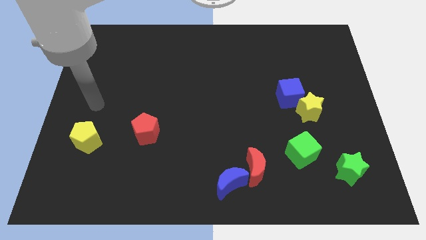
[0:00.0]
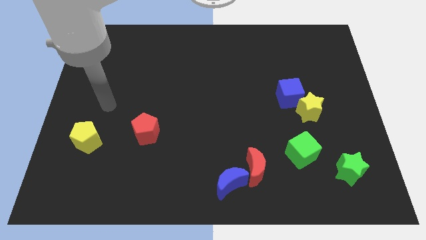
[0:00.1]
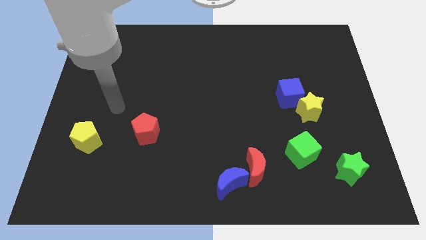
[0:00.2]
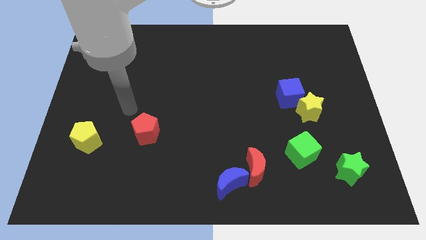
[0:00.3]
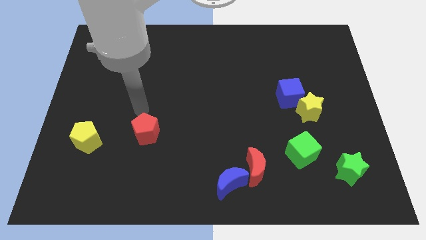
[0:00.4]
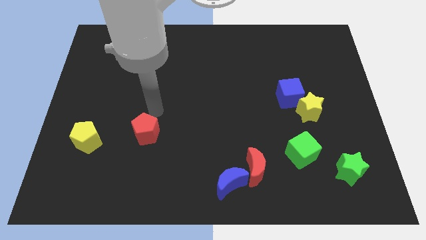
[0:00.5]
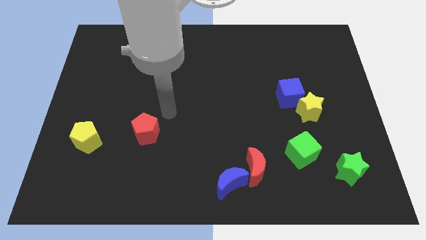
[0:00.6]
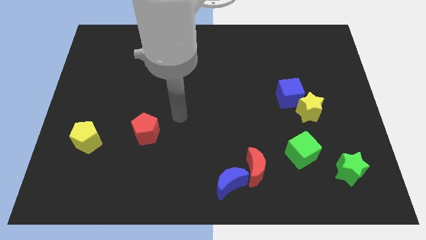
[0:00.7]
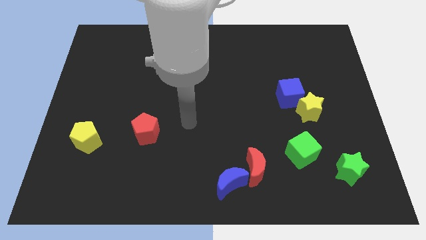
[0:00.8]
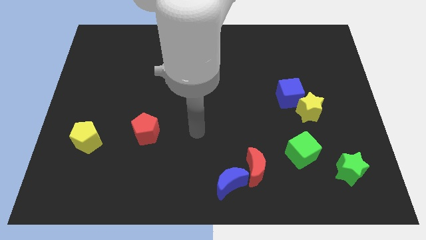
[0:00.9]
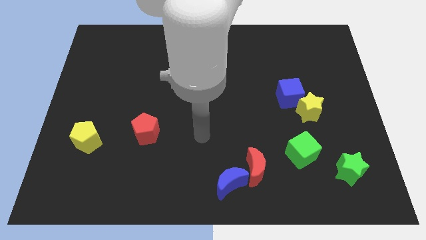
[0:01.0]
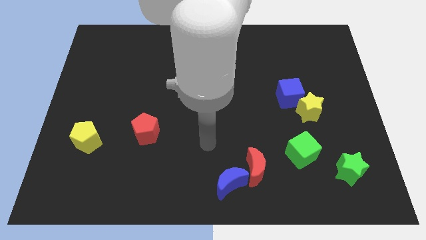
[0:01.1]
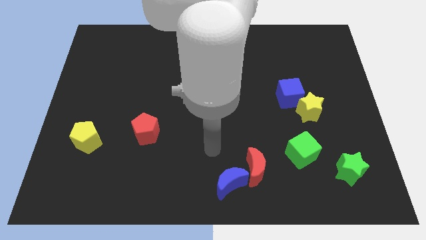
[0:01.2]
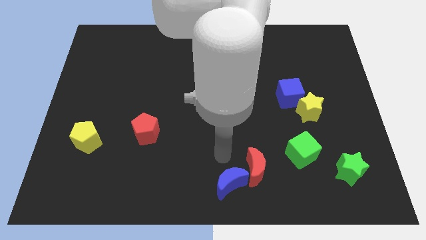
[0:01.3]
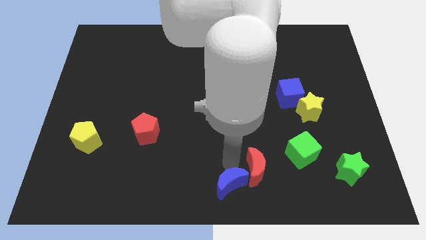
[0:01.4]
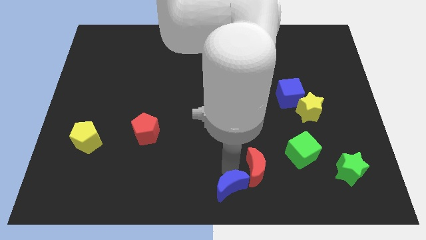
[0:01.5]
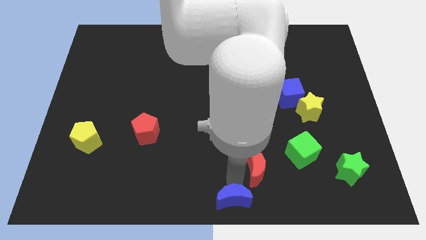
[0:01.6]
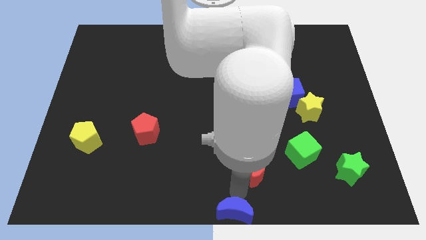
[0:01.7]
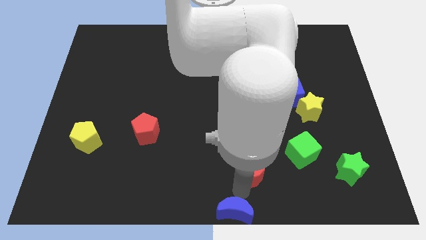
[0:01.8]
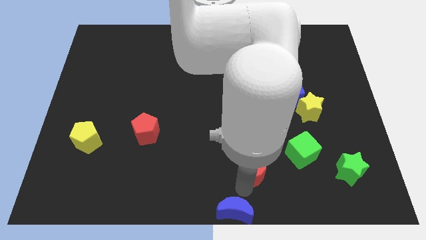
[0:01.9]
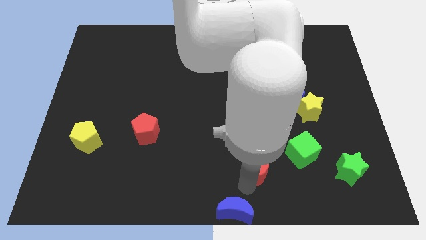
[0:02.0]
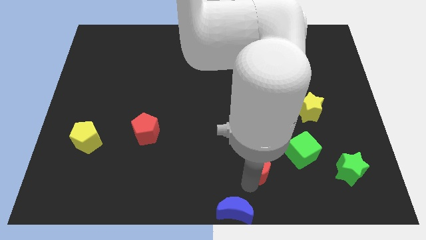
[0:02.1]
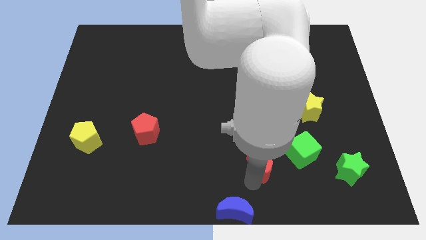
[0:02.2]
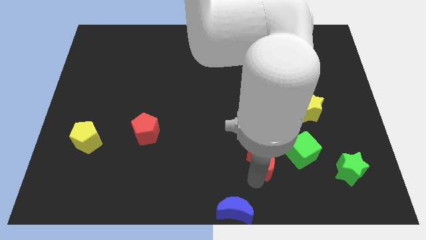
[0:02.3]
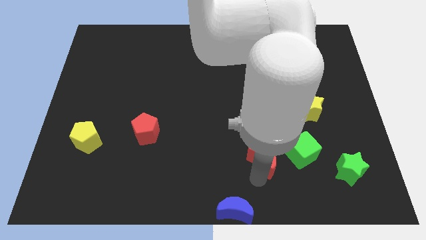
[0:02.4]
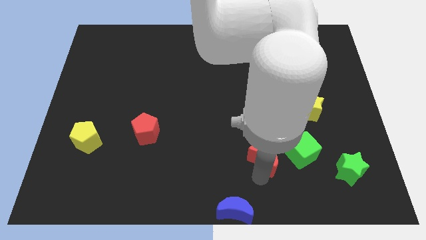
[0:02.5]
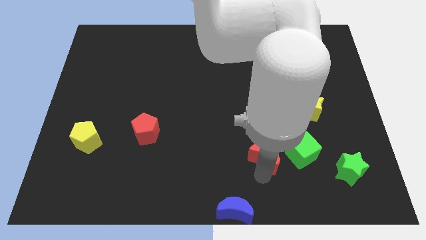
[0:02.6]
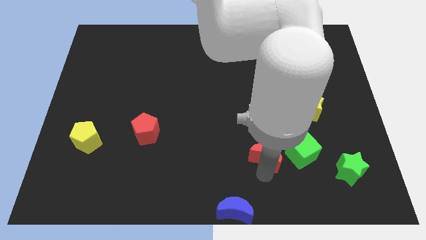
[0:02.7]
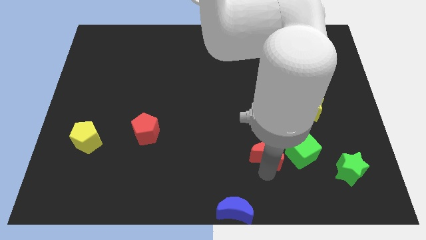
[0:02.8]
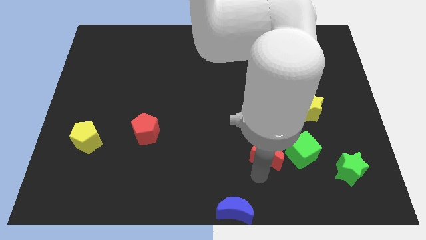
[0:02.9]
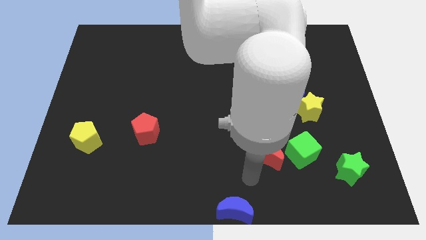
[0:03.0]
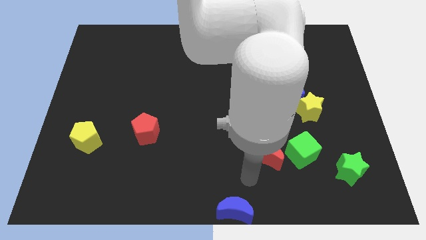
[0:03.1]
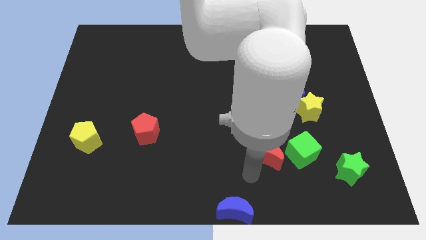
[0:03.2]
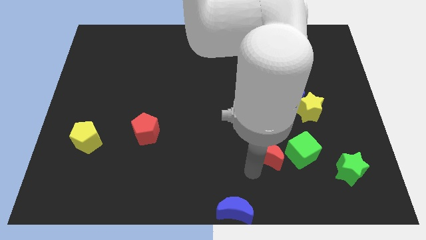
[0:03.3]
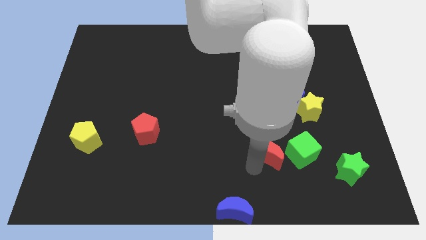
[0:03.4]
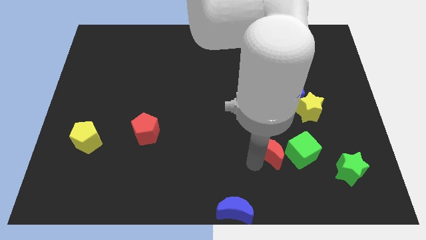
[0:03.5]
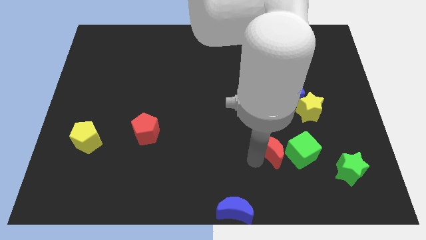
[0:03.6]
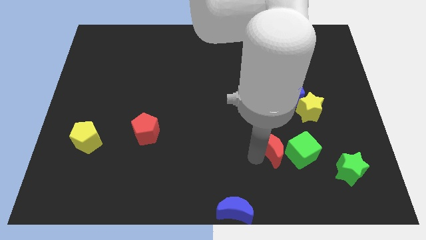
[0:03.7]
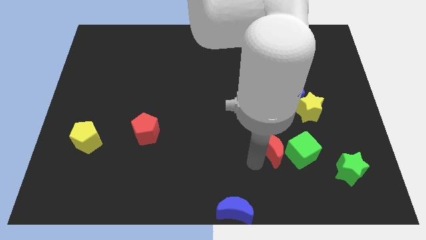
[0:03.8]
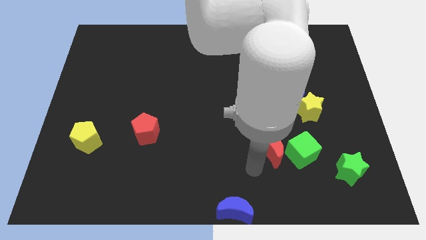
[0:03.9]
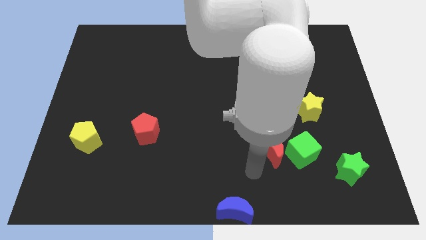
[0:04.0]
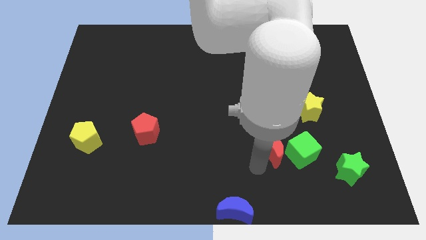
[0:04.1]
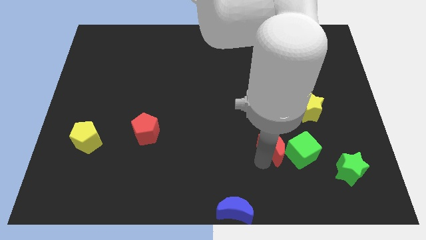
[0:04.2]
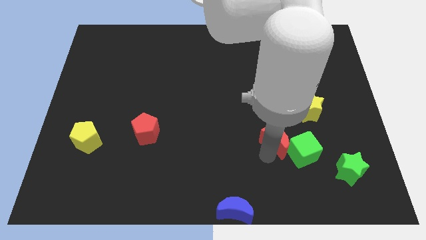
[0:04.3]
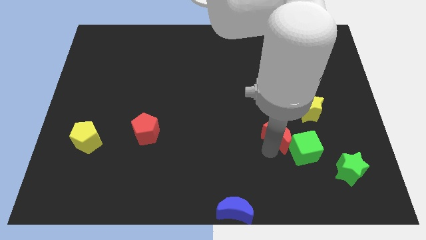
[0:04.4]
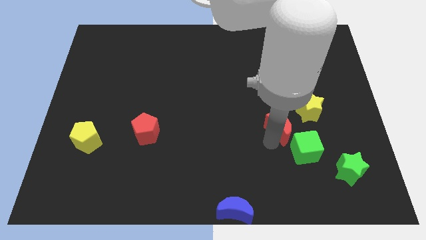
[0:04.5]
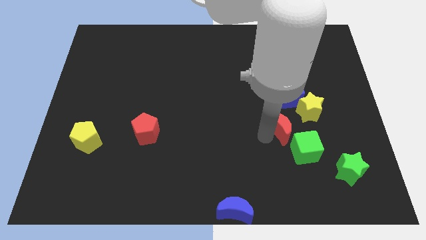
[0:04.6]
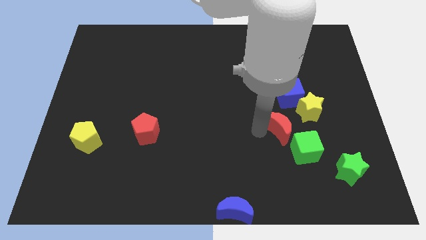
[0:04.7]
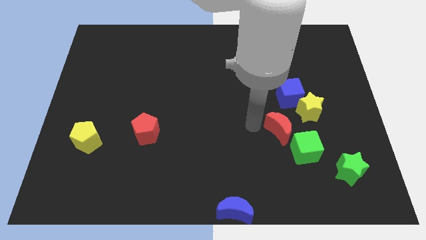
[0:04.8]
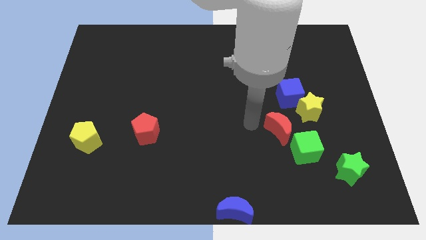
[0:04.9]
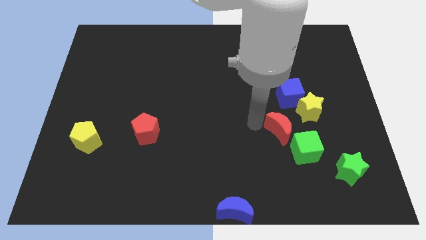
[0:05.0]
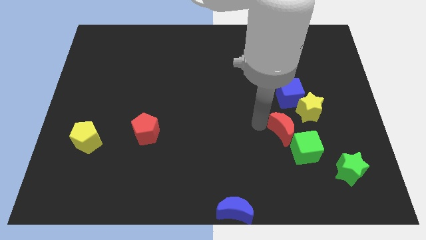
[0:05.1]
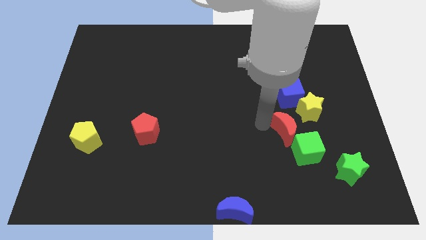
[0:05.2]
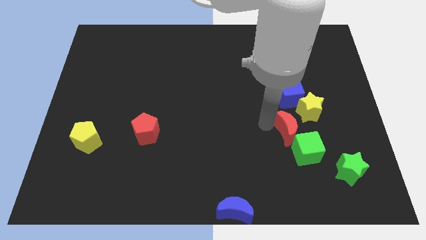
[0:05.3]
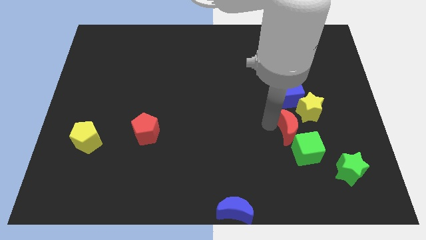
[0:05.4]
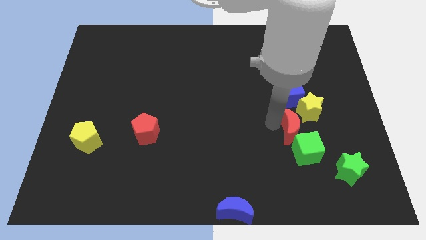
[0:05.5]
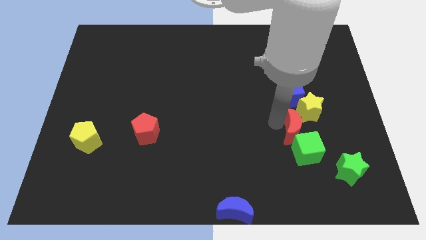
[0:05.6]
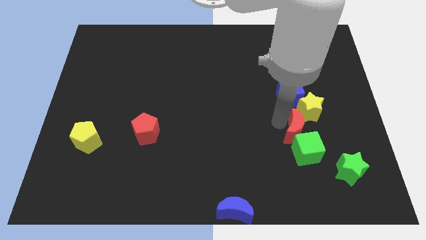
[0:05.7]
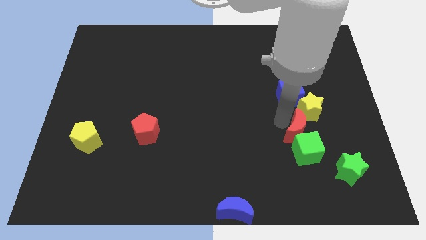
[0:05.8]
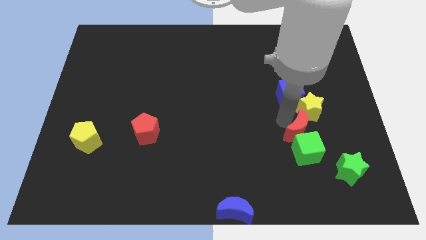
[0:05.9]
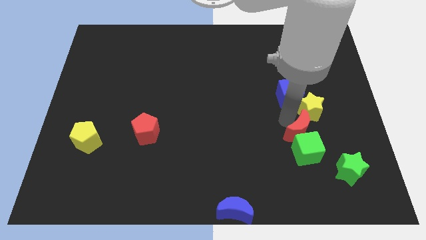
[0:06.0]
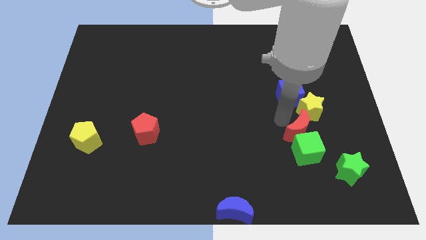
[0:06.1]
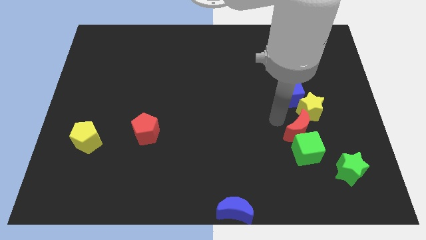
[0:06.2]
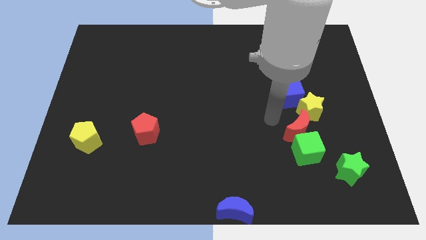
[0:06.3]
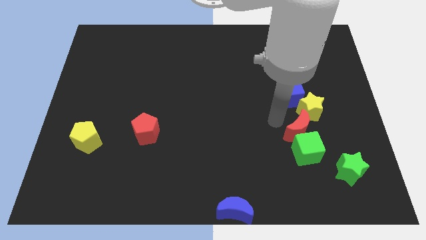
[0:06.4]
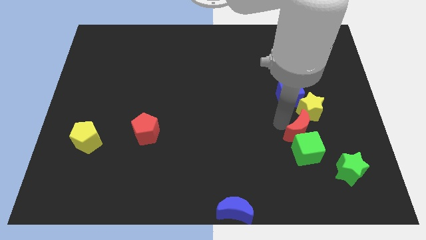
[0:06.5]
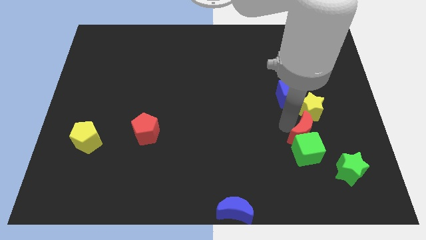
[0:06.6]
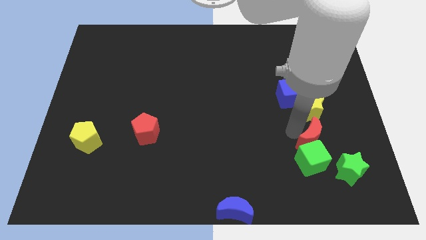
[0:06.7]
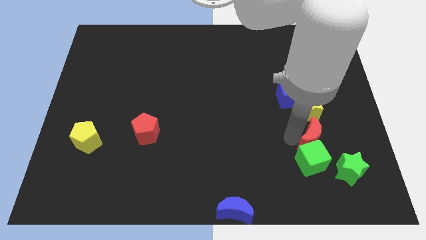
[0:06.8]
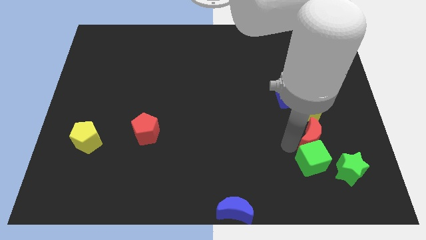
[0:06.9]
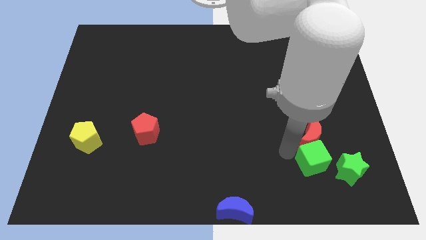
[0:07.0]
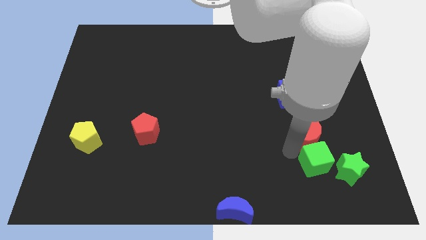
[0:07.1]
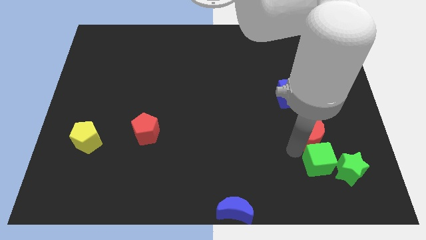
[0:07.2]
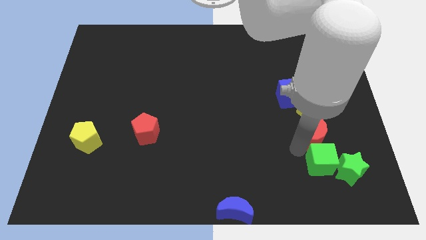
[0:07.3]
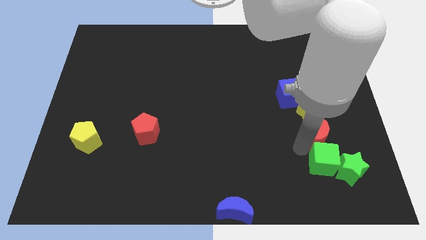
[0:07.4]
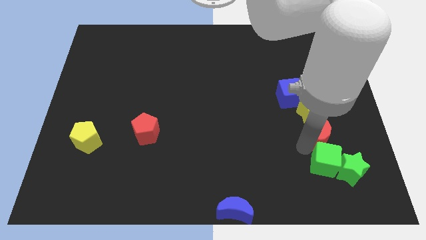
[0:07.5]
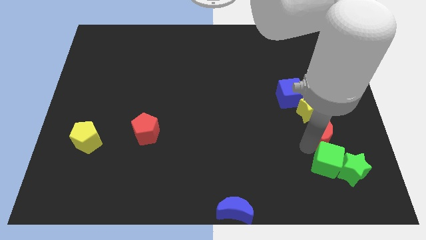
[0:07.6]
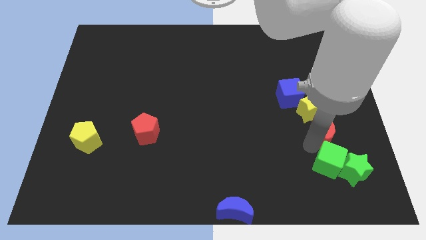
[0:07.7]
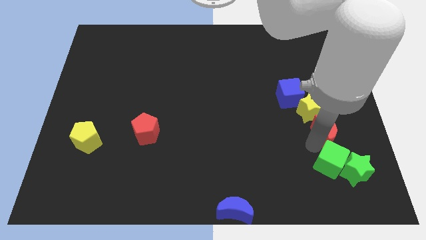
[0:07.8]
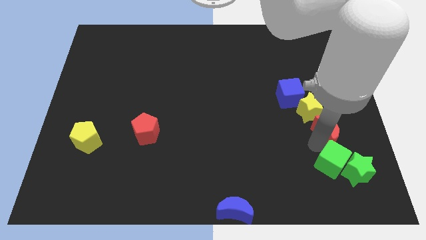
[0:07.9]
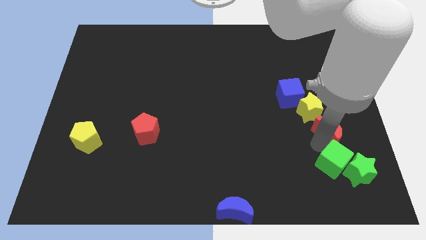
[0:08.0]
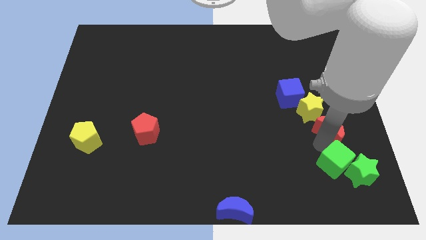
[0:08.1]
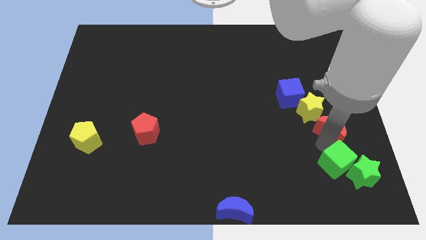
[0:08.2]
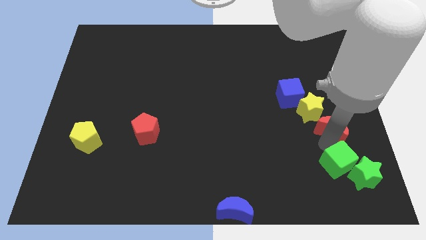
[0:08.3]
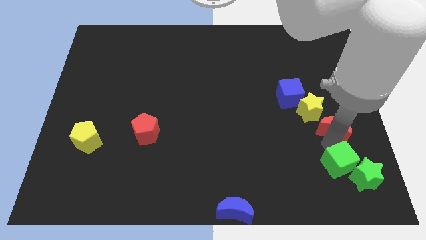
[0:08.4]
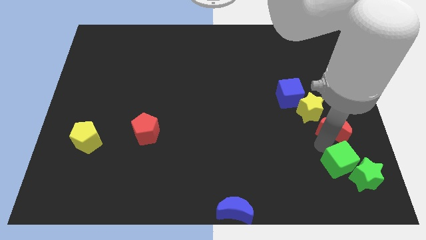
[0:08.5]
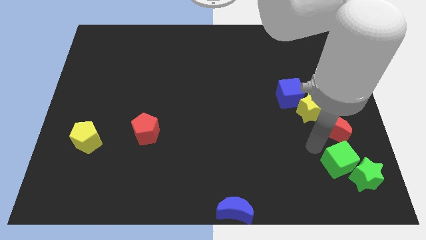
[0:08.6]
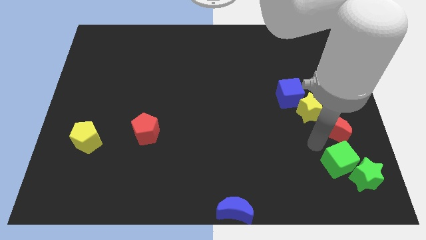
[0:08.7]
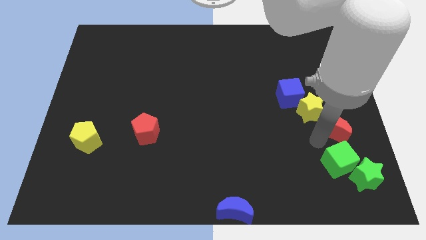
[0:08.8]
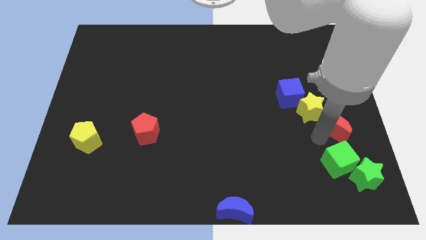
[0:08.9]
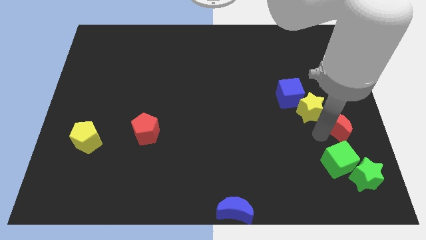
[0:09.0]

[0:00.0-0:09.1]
slide the red moon to the center right
